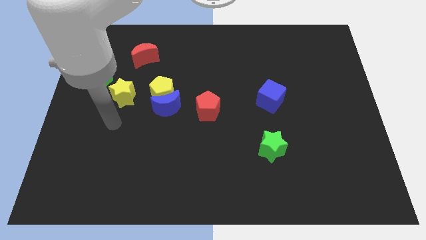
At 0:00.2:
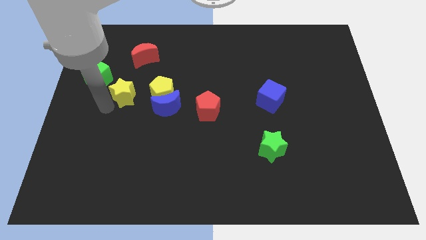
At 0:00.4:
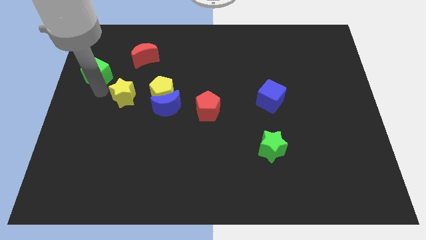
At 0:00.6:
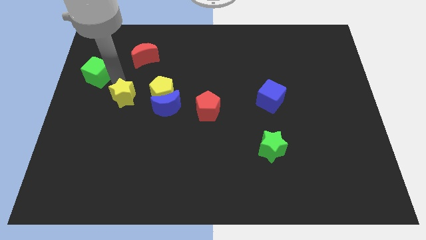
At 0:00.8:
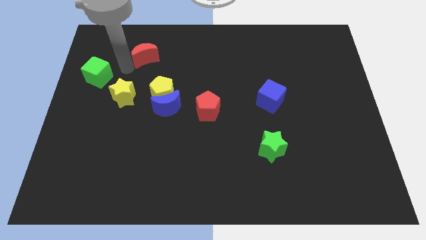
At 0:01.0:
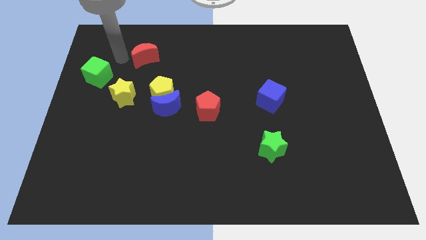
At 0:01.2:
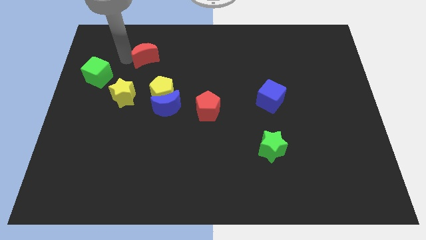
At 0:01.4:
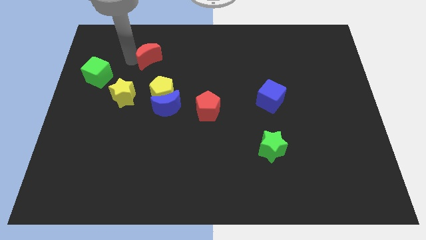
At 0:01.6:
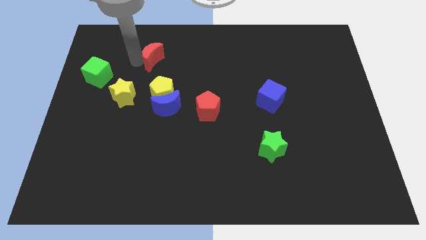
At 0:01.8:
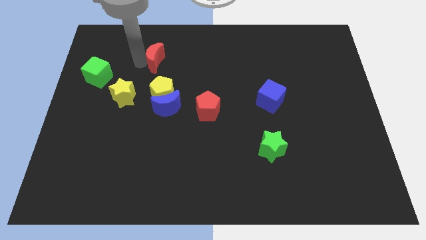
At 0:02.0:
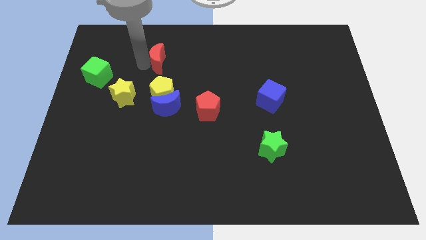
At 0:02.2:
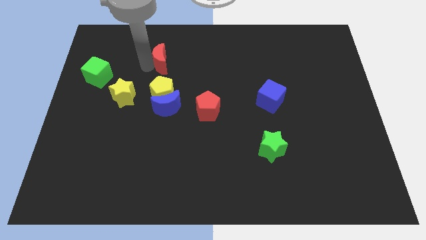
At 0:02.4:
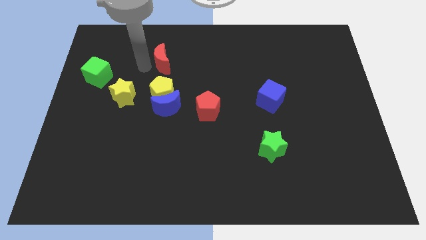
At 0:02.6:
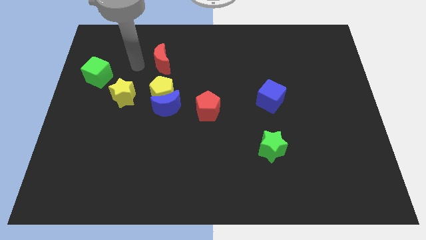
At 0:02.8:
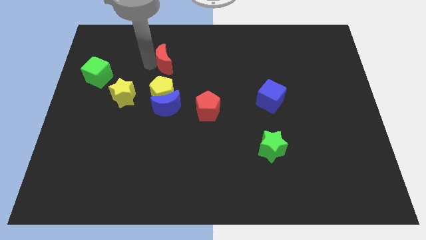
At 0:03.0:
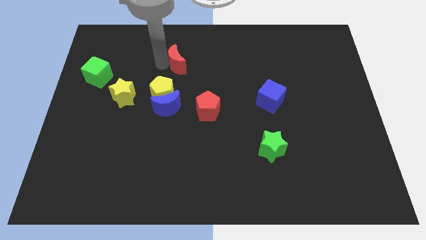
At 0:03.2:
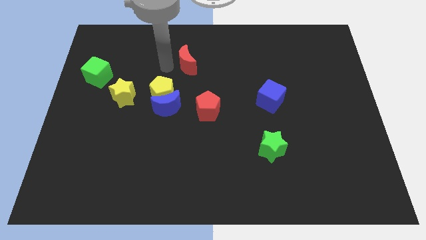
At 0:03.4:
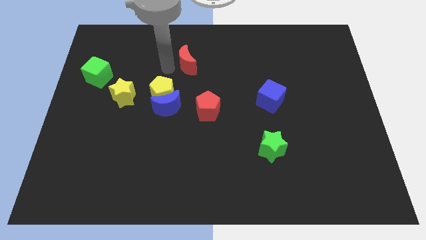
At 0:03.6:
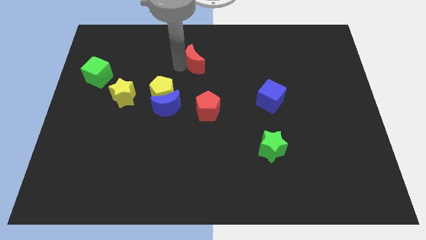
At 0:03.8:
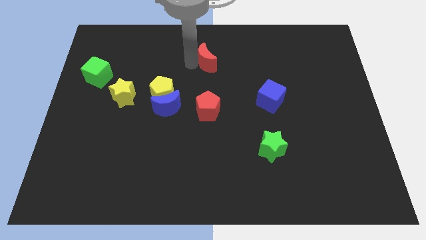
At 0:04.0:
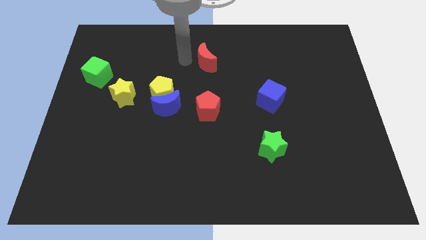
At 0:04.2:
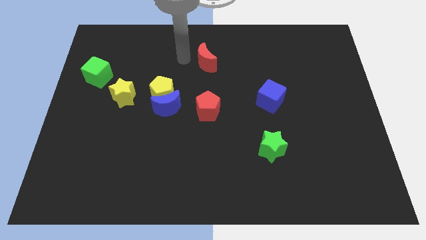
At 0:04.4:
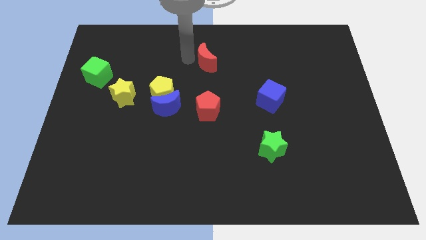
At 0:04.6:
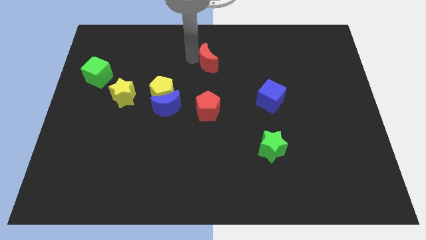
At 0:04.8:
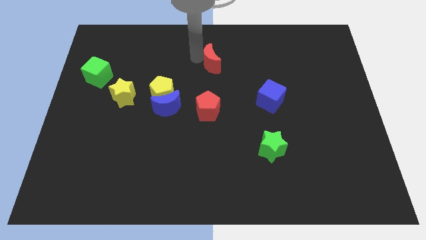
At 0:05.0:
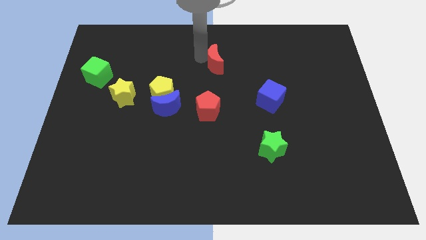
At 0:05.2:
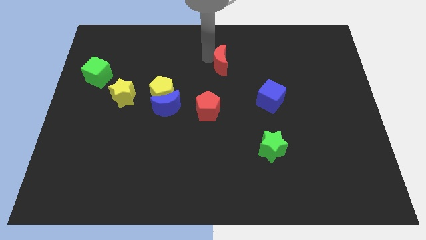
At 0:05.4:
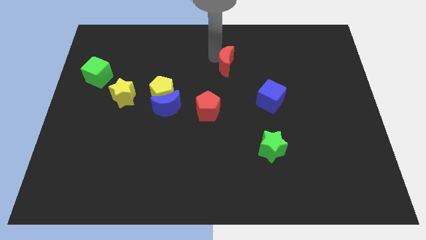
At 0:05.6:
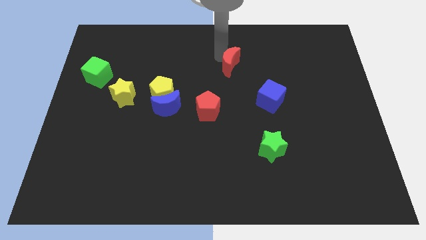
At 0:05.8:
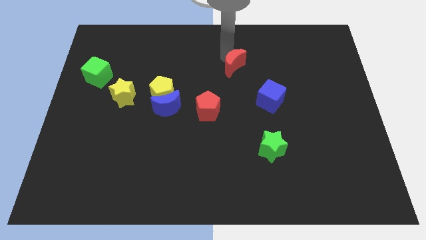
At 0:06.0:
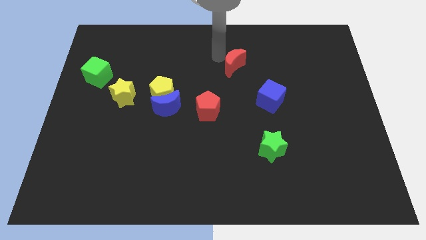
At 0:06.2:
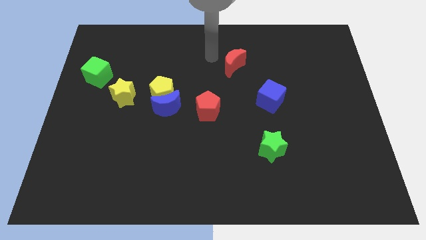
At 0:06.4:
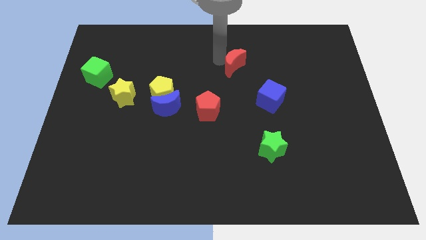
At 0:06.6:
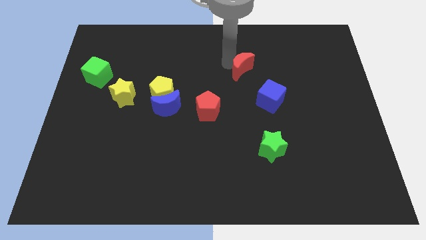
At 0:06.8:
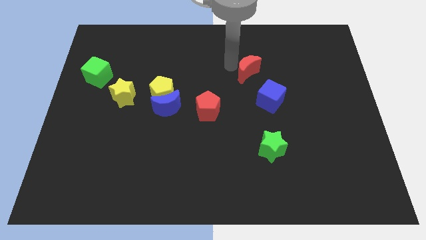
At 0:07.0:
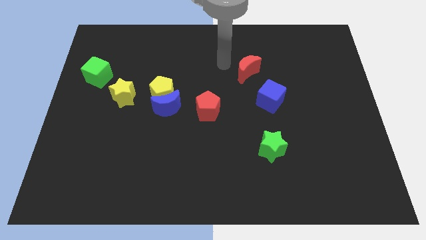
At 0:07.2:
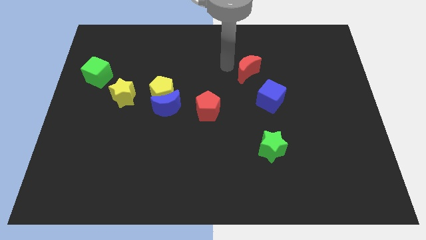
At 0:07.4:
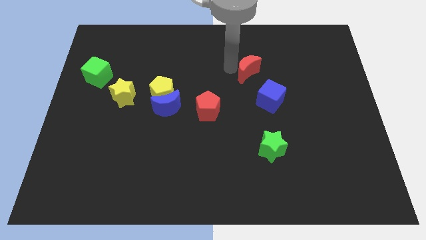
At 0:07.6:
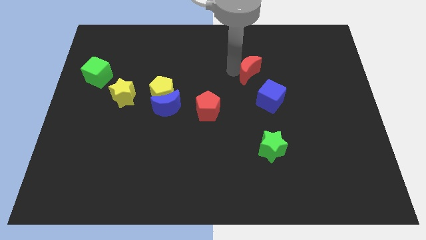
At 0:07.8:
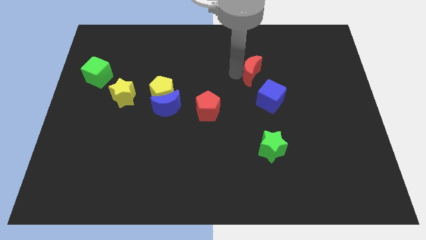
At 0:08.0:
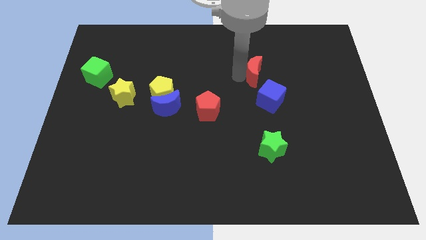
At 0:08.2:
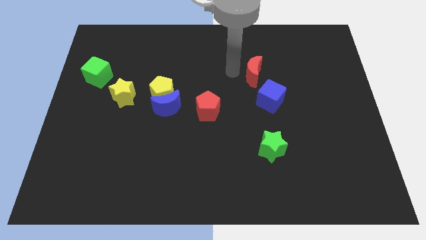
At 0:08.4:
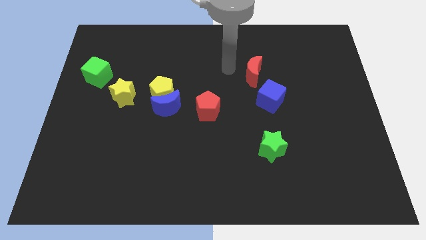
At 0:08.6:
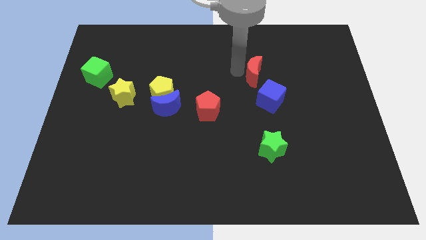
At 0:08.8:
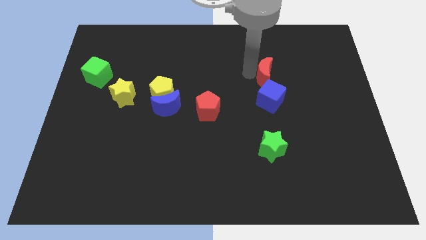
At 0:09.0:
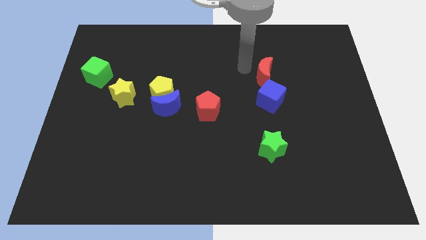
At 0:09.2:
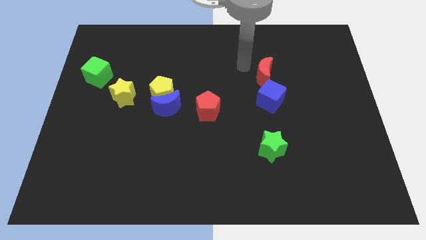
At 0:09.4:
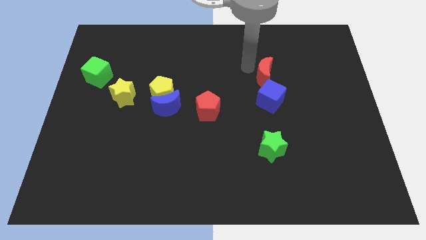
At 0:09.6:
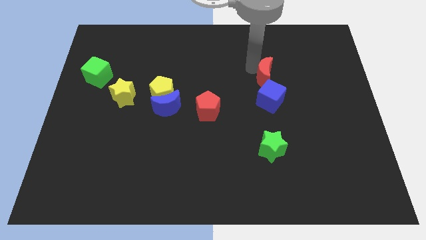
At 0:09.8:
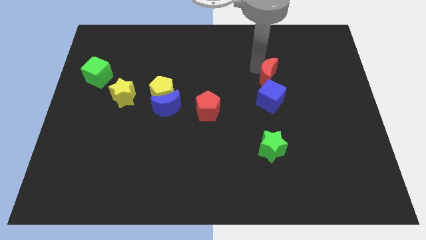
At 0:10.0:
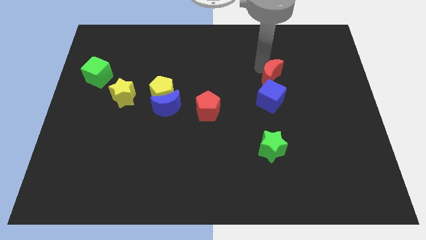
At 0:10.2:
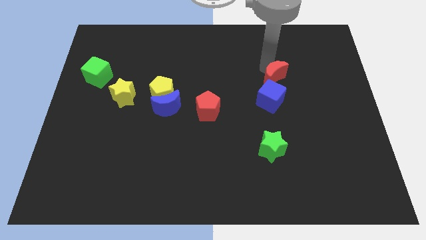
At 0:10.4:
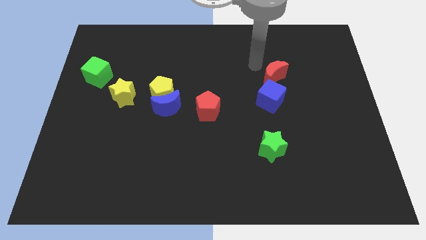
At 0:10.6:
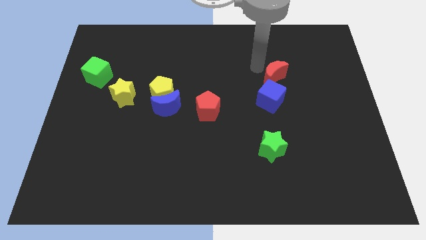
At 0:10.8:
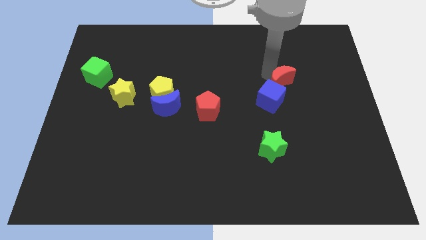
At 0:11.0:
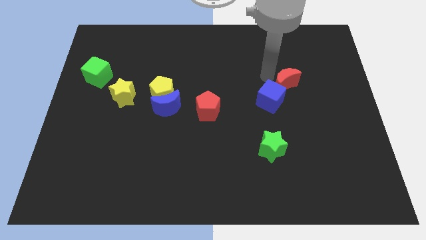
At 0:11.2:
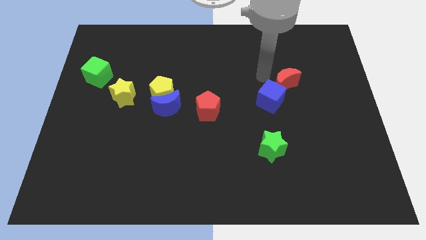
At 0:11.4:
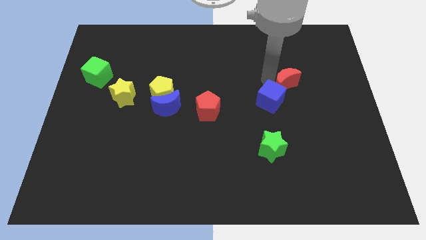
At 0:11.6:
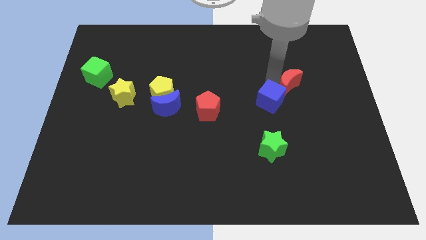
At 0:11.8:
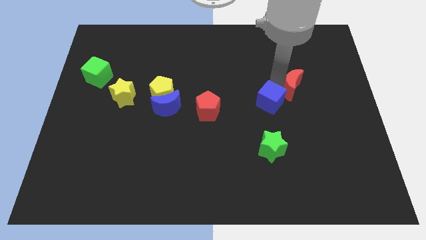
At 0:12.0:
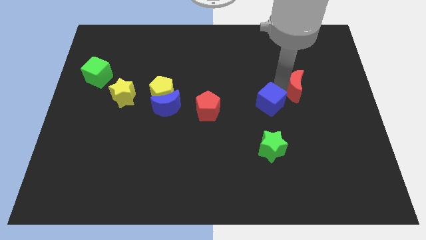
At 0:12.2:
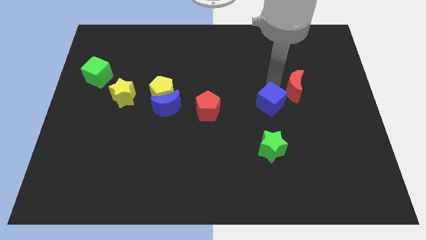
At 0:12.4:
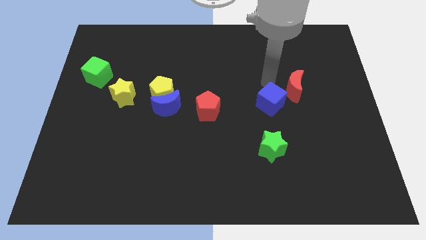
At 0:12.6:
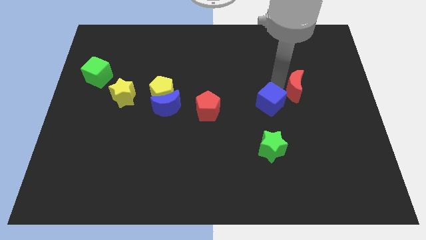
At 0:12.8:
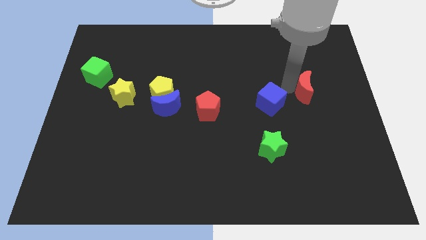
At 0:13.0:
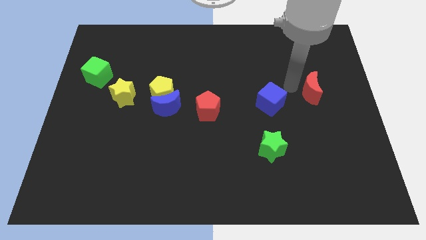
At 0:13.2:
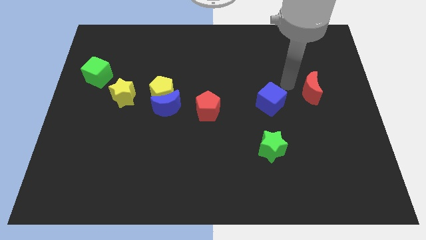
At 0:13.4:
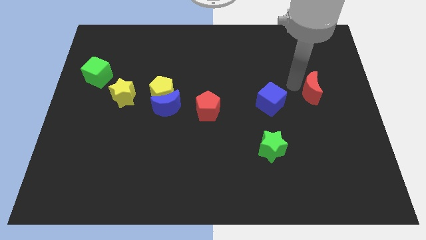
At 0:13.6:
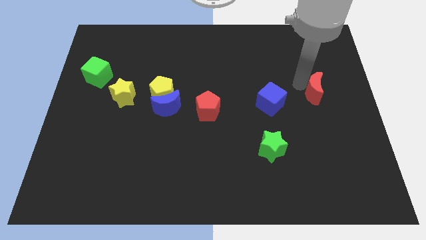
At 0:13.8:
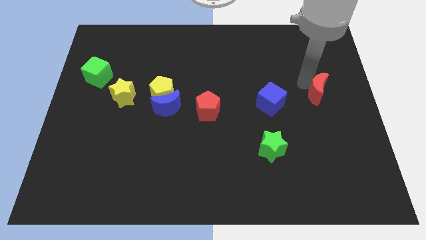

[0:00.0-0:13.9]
slide the red moon to the right side
